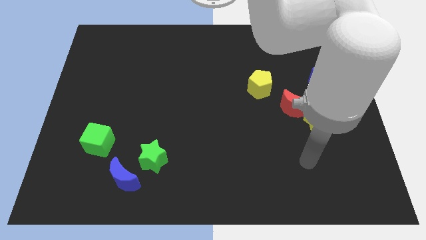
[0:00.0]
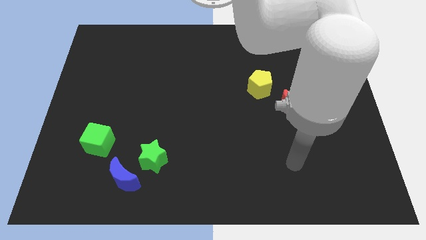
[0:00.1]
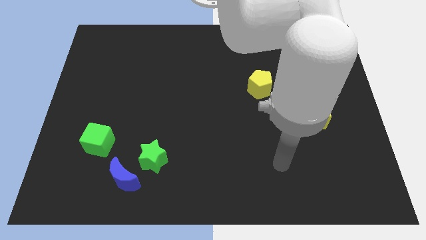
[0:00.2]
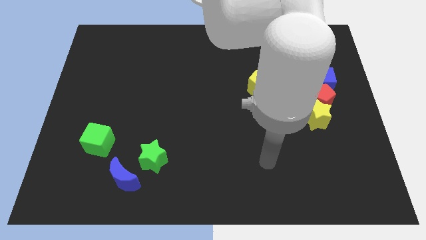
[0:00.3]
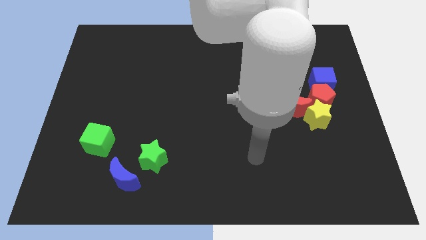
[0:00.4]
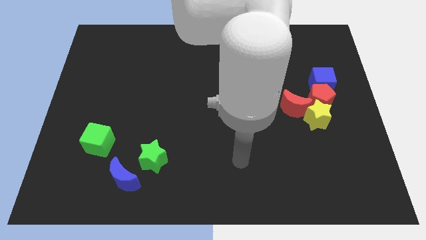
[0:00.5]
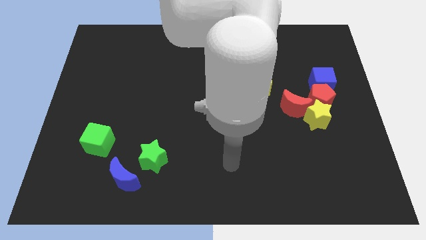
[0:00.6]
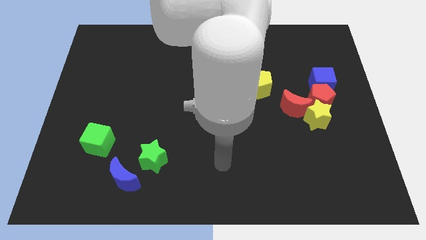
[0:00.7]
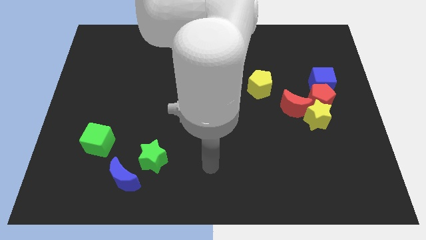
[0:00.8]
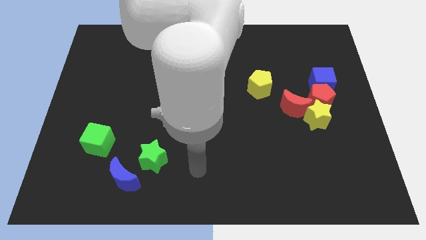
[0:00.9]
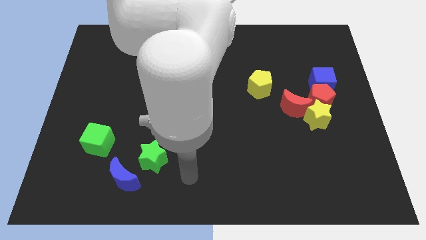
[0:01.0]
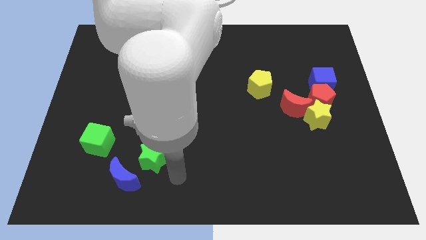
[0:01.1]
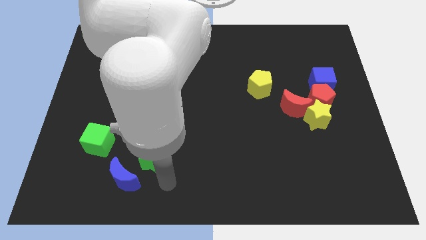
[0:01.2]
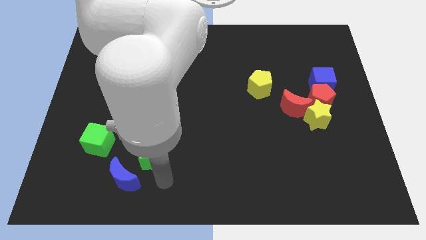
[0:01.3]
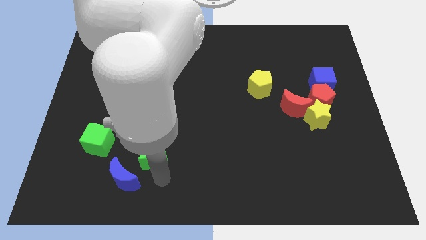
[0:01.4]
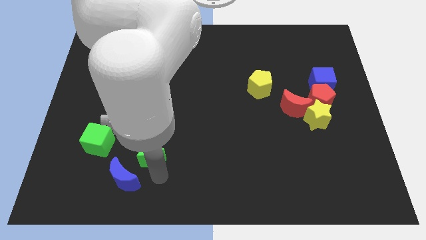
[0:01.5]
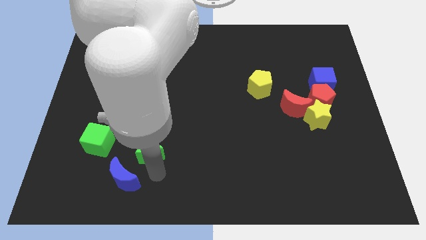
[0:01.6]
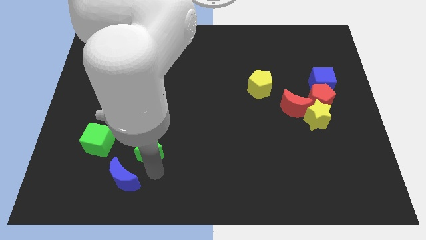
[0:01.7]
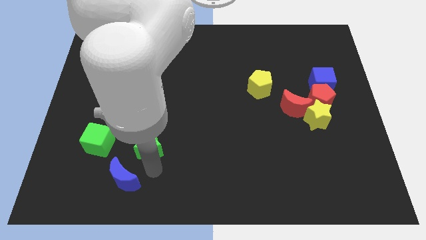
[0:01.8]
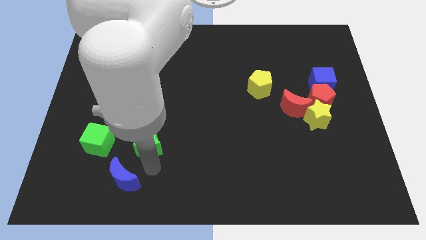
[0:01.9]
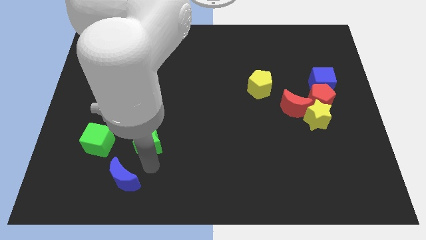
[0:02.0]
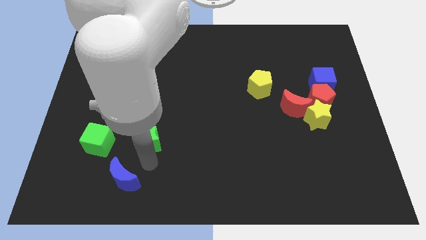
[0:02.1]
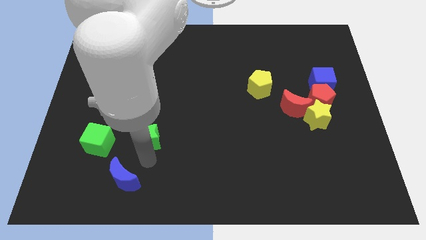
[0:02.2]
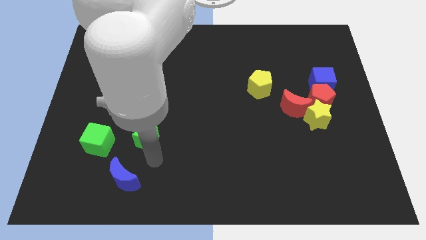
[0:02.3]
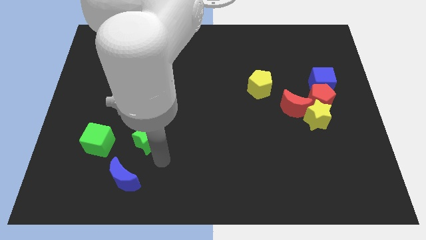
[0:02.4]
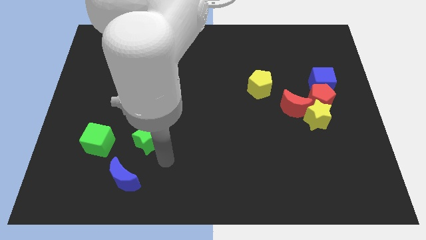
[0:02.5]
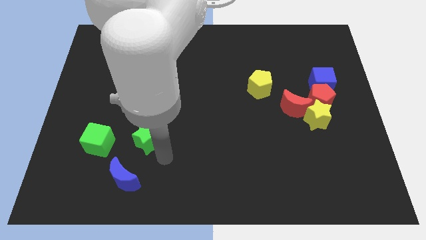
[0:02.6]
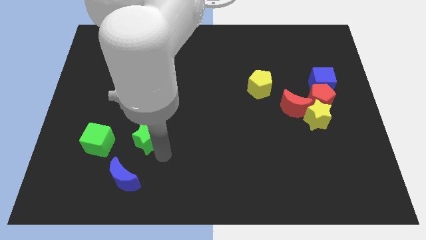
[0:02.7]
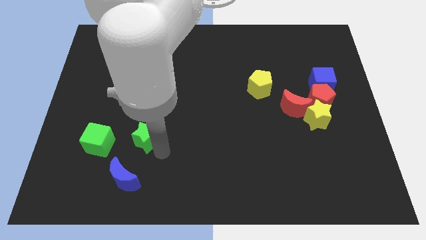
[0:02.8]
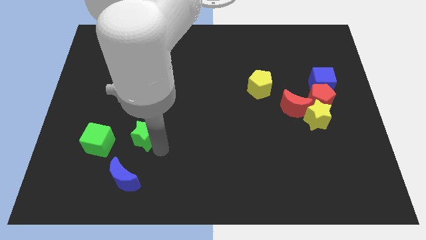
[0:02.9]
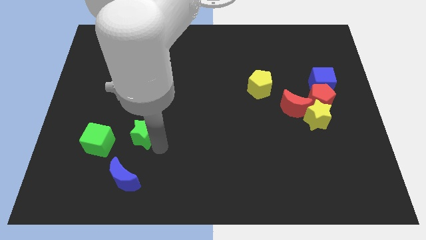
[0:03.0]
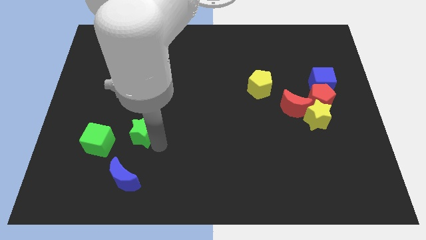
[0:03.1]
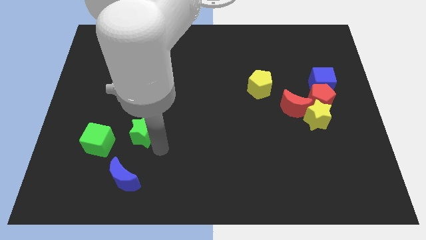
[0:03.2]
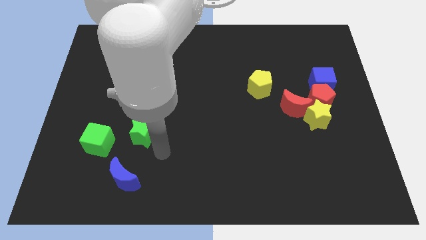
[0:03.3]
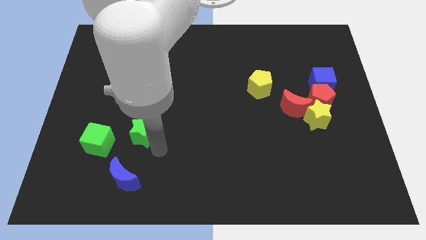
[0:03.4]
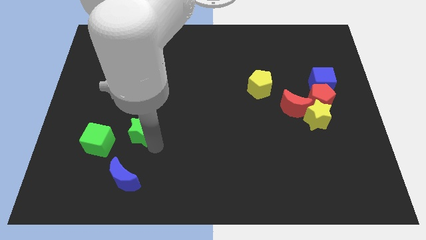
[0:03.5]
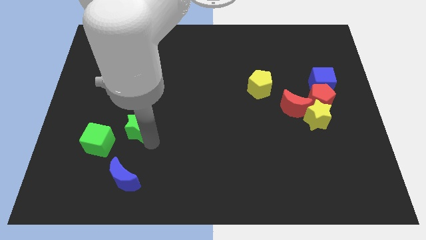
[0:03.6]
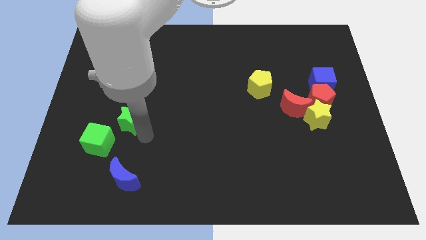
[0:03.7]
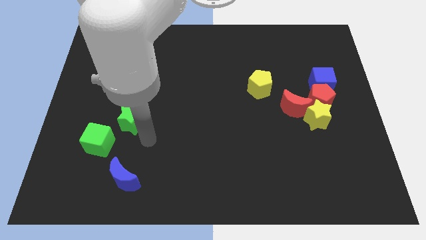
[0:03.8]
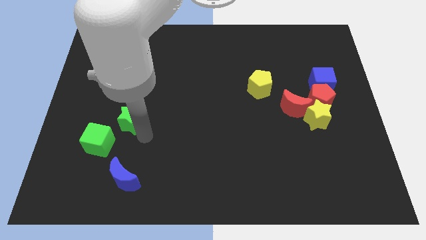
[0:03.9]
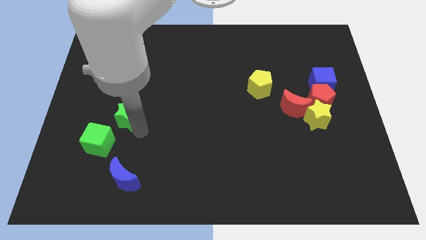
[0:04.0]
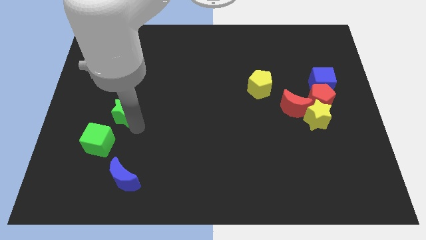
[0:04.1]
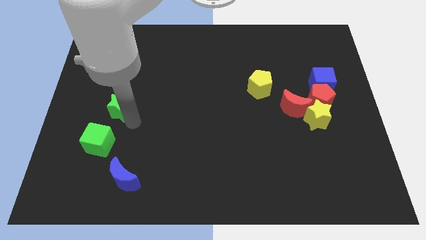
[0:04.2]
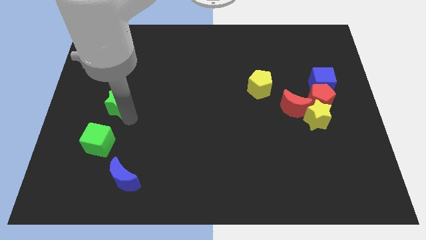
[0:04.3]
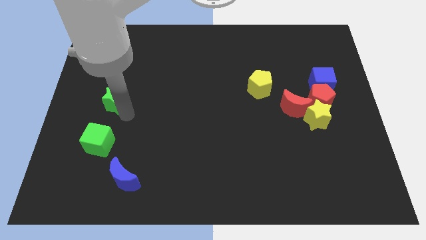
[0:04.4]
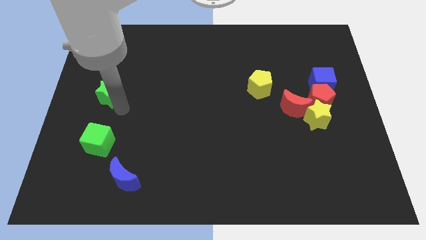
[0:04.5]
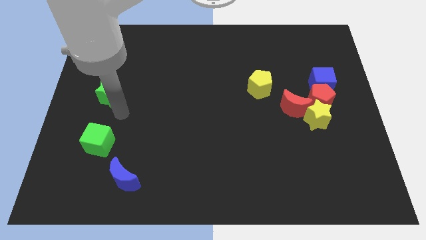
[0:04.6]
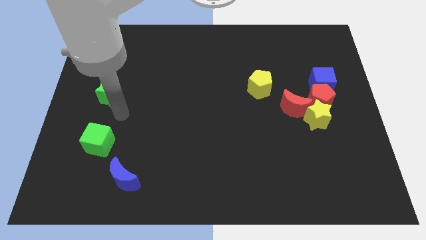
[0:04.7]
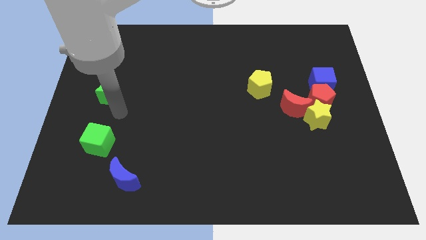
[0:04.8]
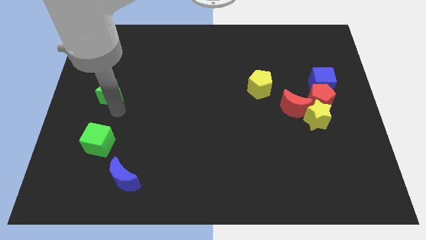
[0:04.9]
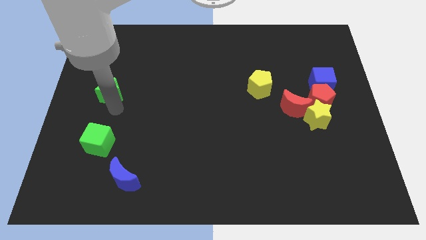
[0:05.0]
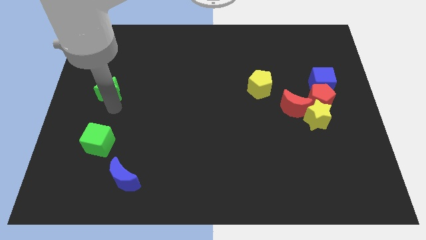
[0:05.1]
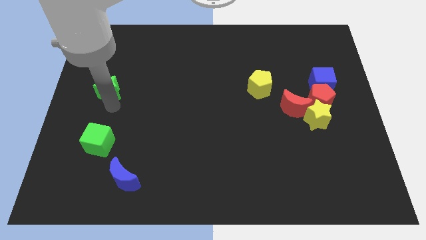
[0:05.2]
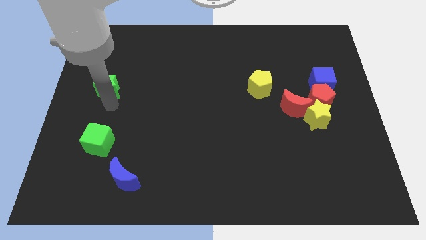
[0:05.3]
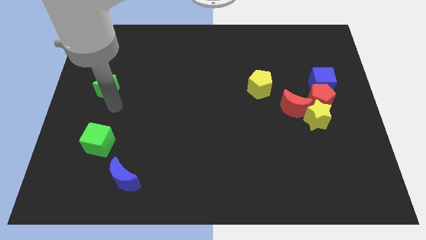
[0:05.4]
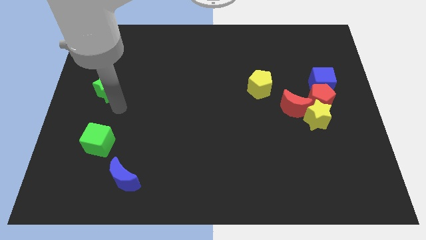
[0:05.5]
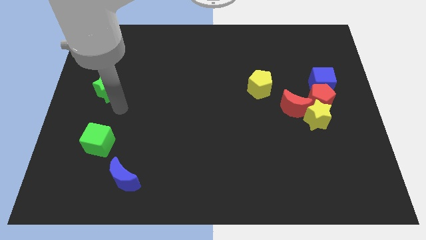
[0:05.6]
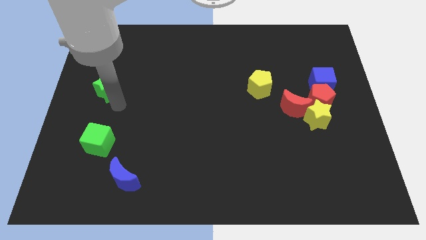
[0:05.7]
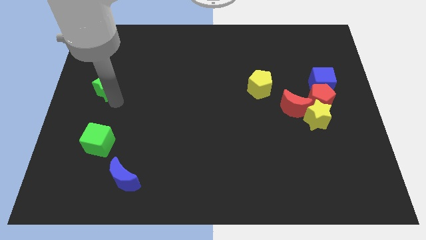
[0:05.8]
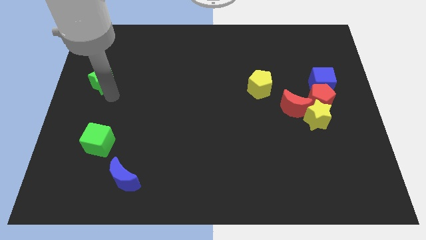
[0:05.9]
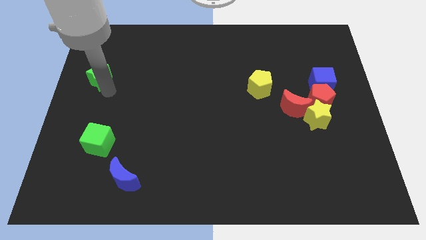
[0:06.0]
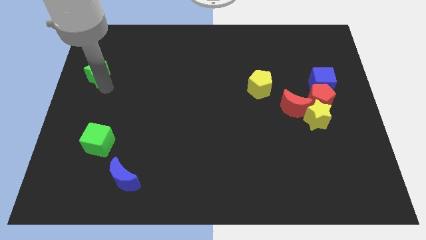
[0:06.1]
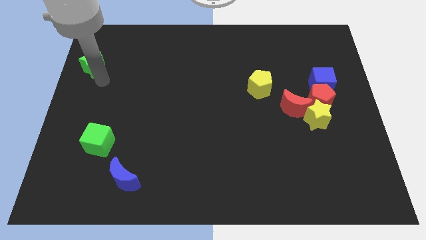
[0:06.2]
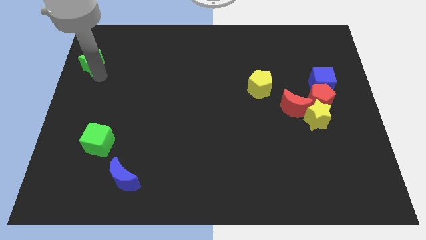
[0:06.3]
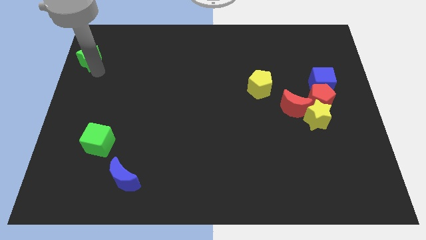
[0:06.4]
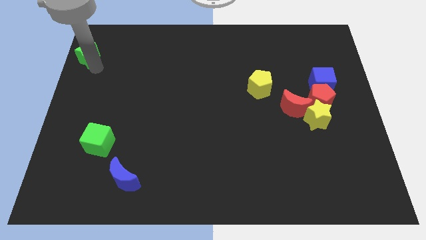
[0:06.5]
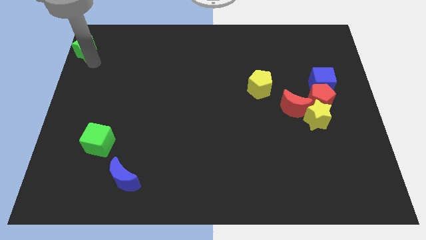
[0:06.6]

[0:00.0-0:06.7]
slide the green star to the top left corner

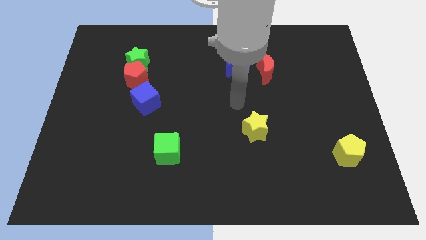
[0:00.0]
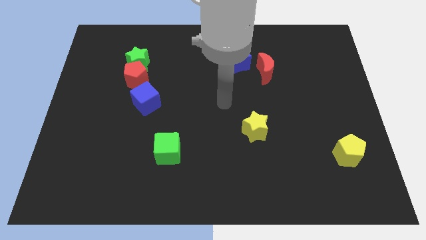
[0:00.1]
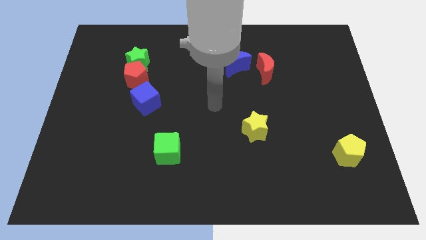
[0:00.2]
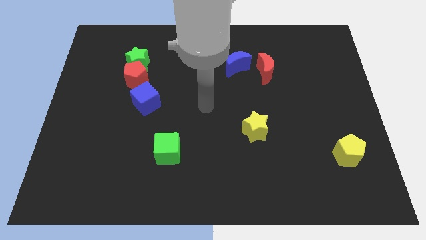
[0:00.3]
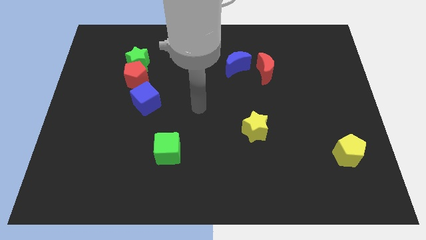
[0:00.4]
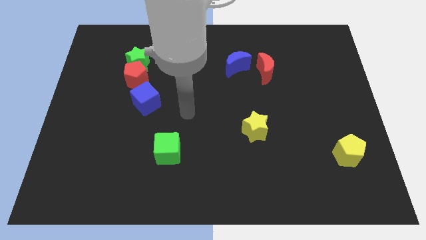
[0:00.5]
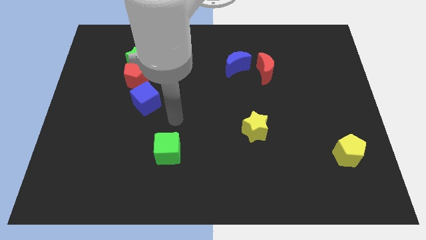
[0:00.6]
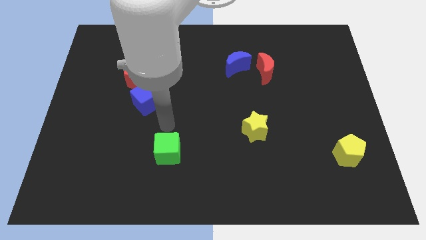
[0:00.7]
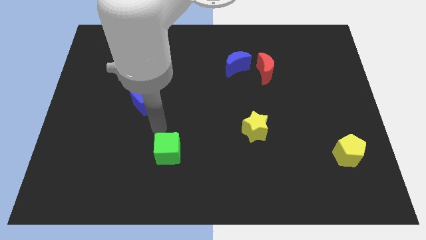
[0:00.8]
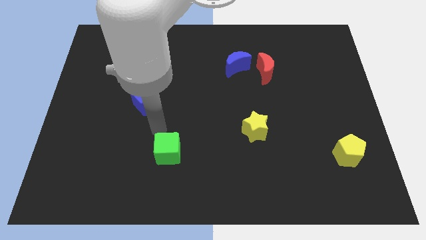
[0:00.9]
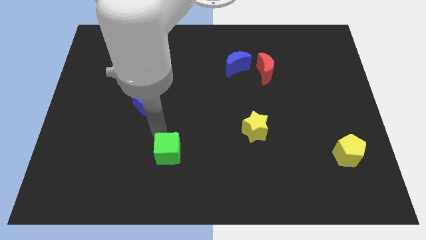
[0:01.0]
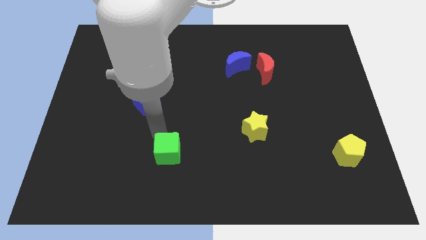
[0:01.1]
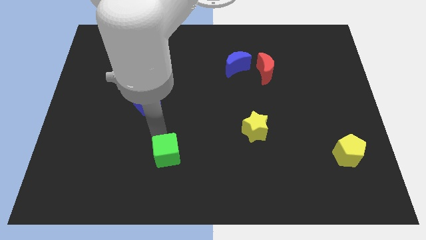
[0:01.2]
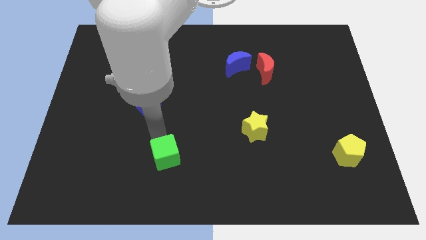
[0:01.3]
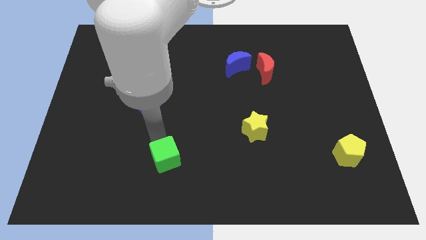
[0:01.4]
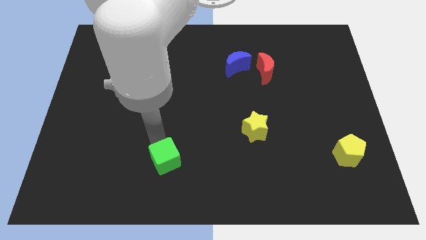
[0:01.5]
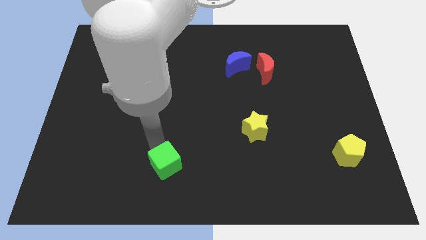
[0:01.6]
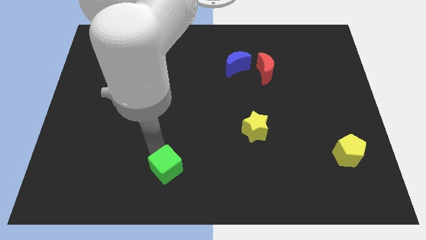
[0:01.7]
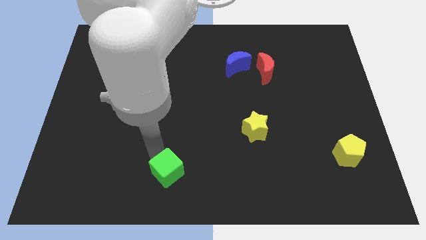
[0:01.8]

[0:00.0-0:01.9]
move the green cube to the bottom side
